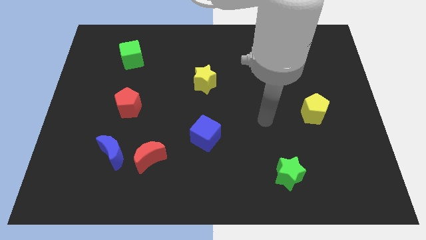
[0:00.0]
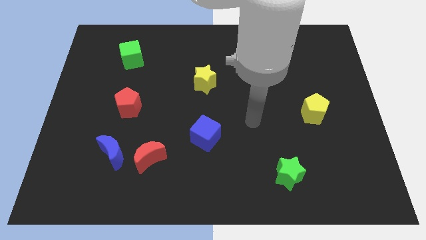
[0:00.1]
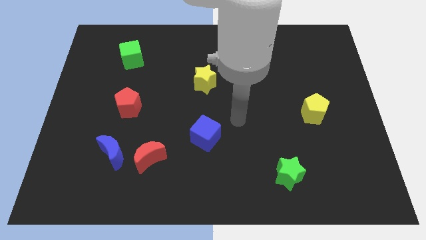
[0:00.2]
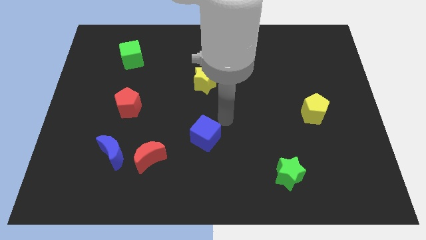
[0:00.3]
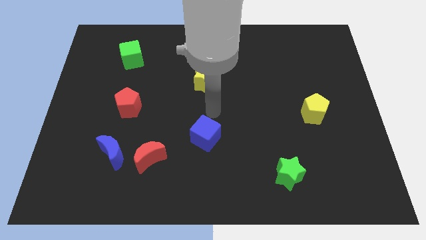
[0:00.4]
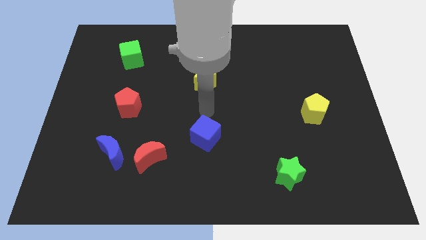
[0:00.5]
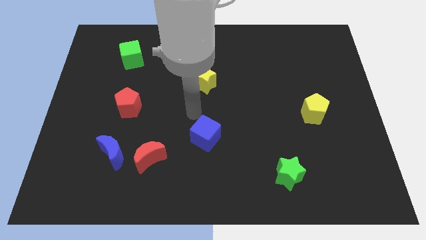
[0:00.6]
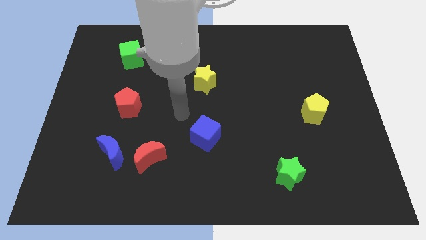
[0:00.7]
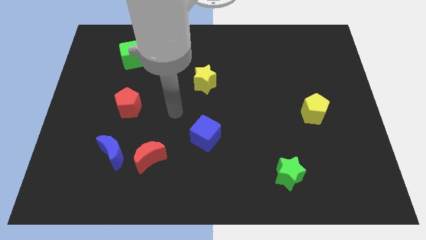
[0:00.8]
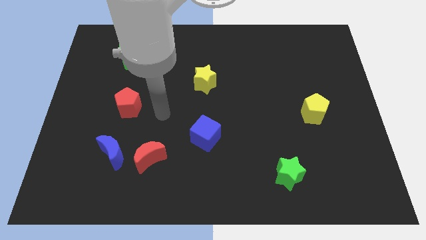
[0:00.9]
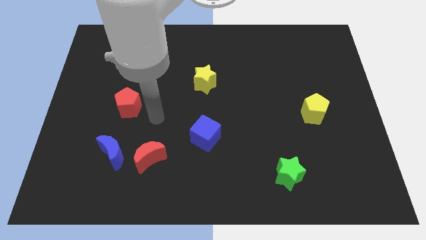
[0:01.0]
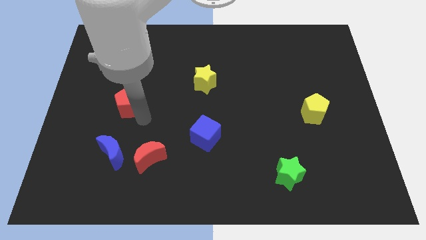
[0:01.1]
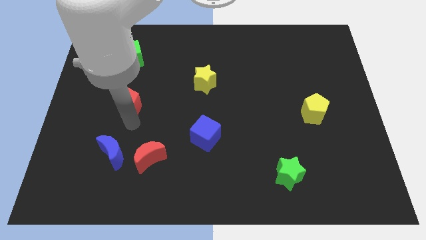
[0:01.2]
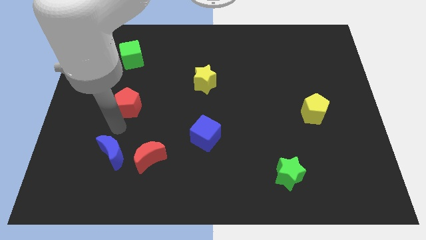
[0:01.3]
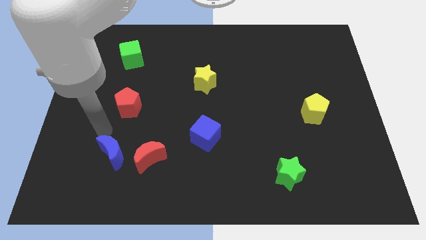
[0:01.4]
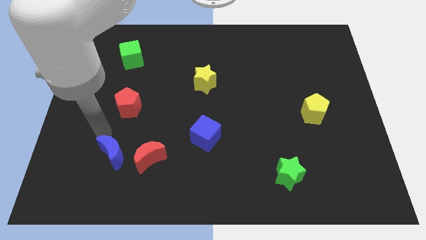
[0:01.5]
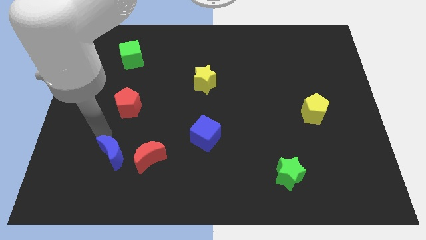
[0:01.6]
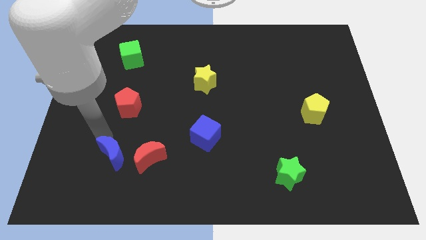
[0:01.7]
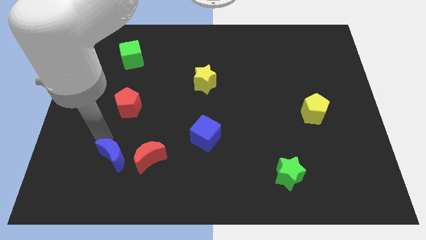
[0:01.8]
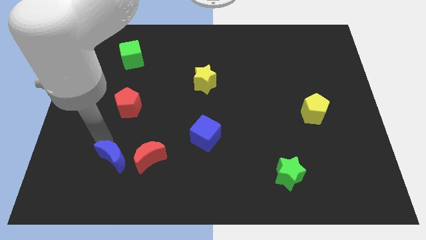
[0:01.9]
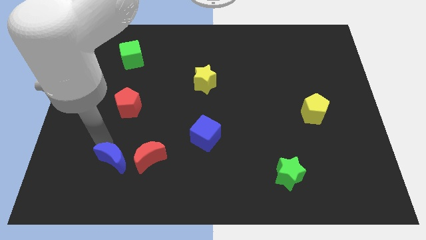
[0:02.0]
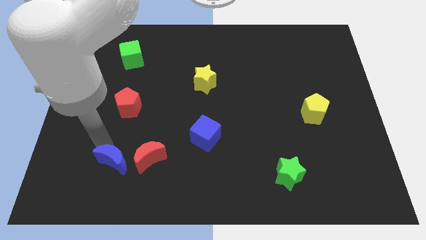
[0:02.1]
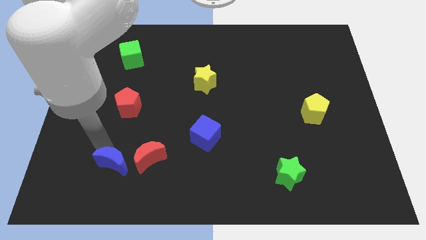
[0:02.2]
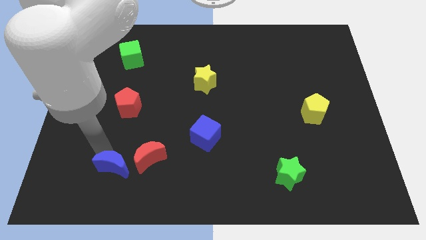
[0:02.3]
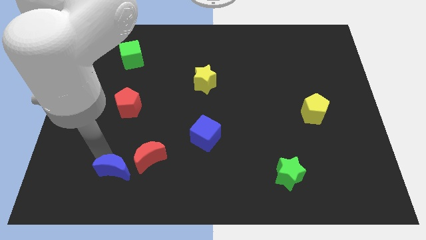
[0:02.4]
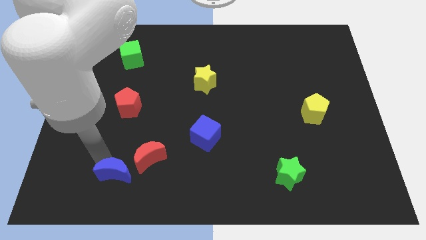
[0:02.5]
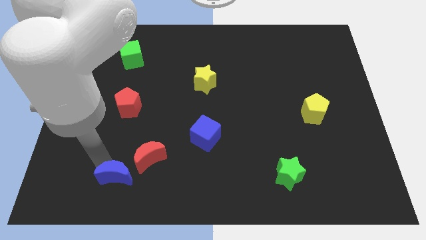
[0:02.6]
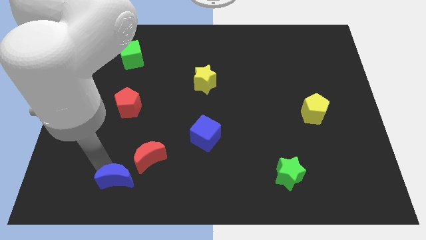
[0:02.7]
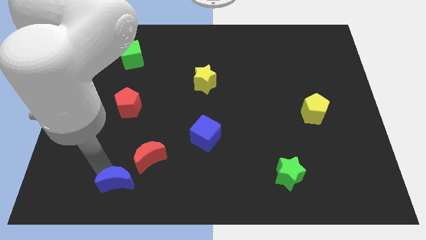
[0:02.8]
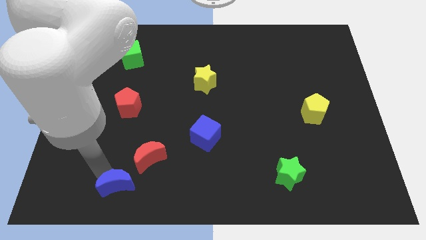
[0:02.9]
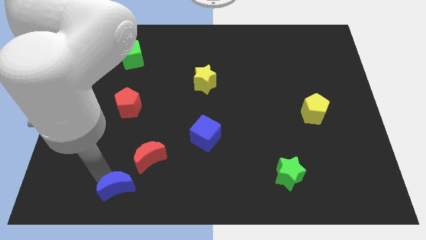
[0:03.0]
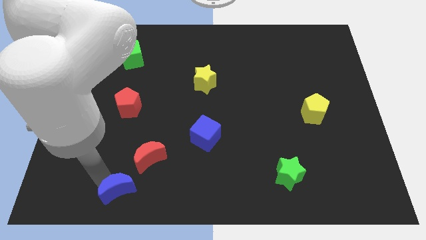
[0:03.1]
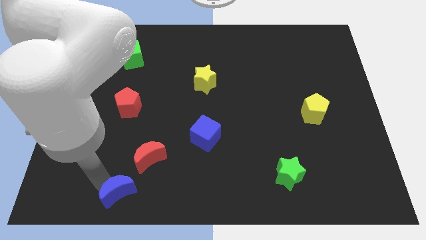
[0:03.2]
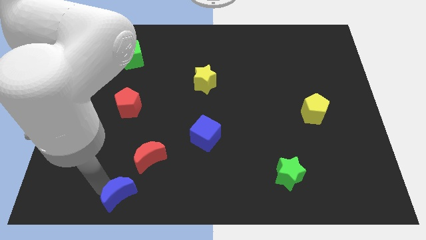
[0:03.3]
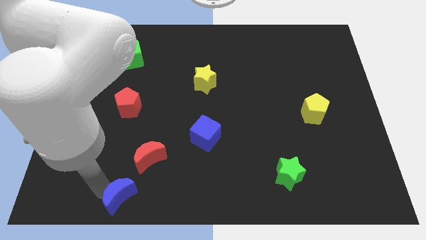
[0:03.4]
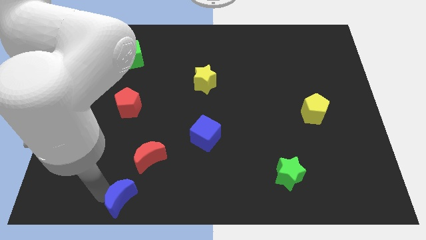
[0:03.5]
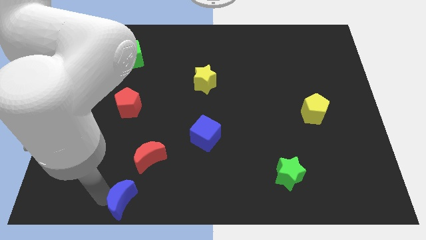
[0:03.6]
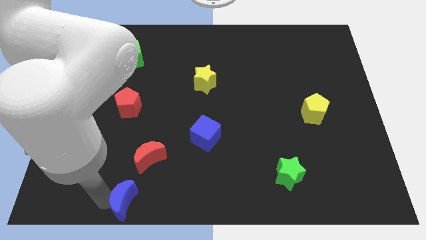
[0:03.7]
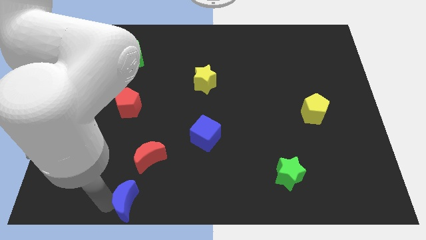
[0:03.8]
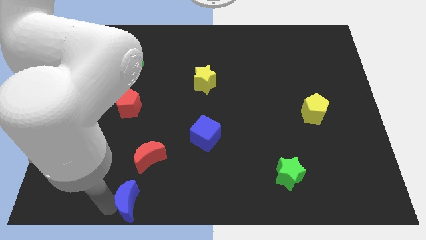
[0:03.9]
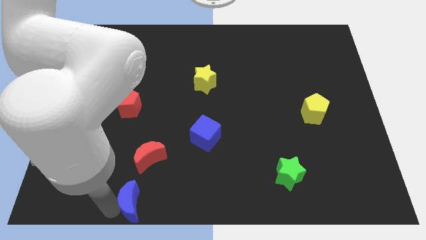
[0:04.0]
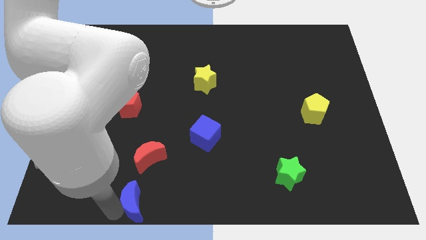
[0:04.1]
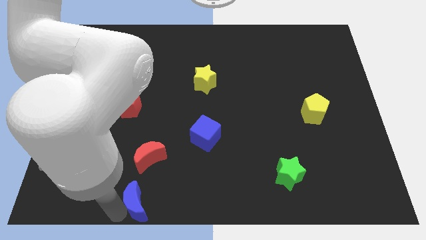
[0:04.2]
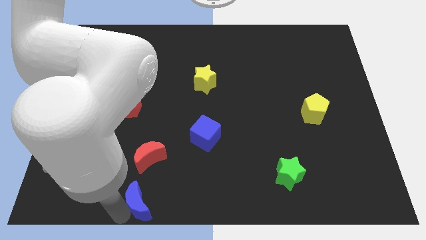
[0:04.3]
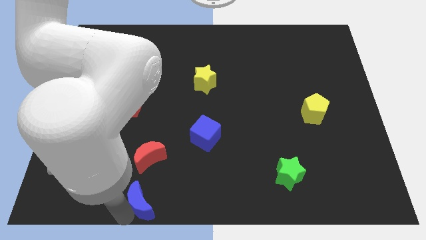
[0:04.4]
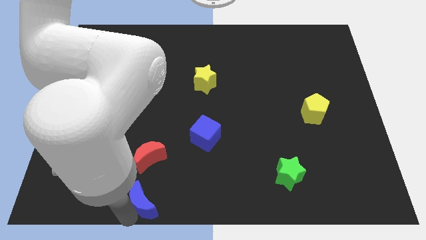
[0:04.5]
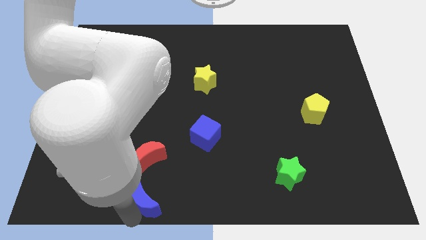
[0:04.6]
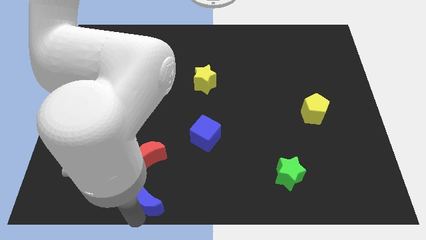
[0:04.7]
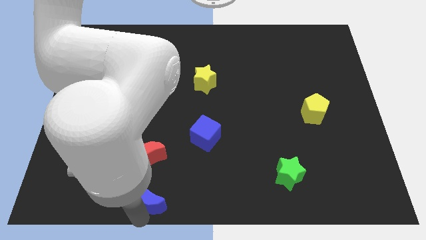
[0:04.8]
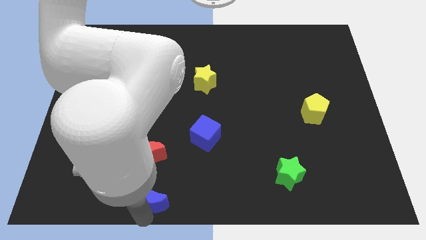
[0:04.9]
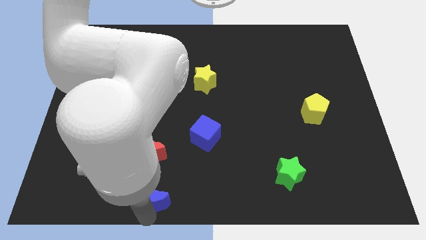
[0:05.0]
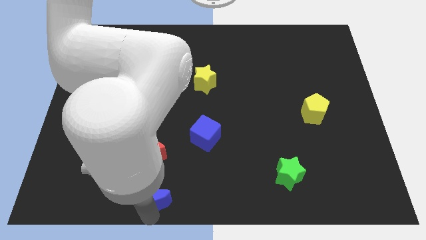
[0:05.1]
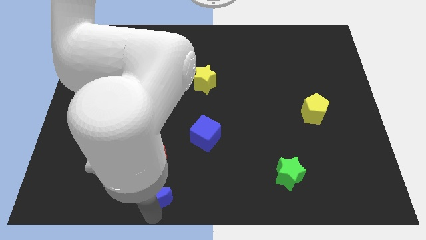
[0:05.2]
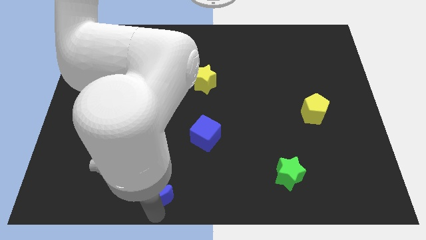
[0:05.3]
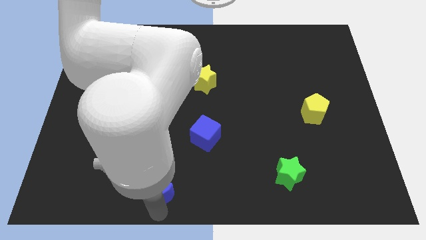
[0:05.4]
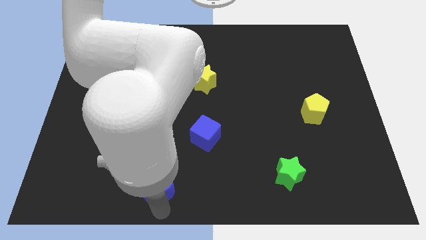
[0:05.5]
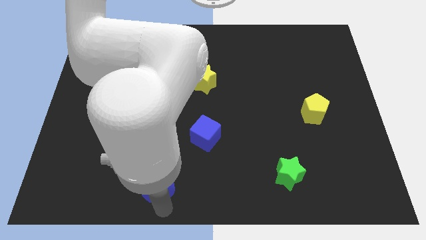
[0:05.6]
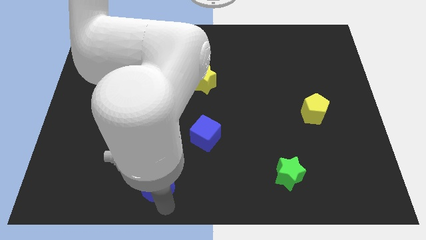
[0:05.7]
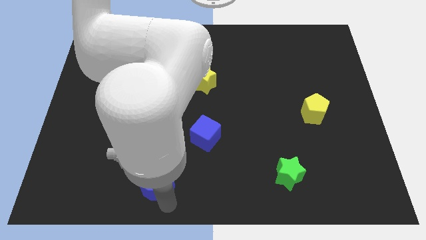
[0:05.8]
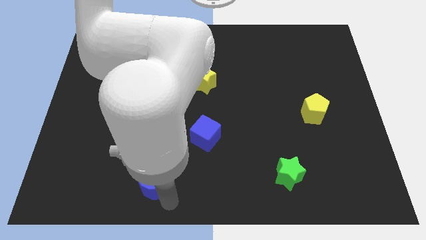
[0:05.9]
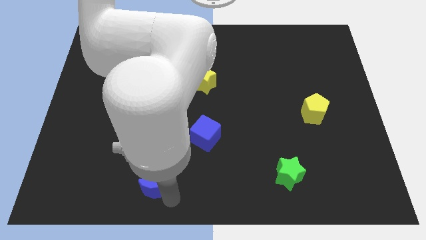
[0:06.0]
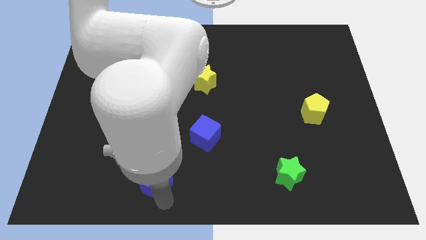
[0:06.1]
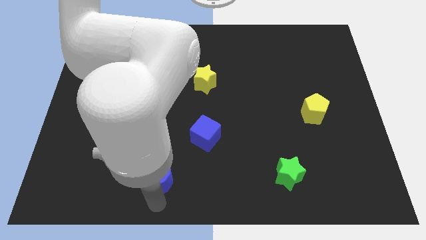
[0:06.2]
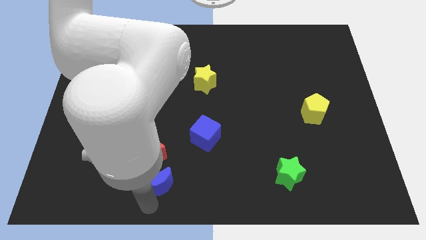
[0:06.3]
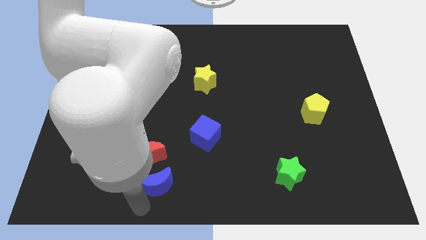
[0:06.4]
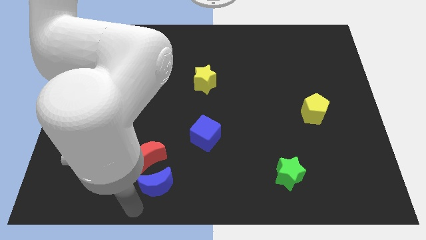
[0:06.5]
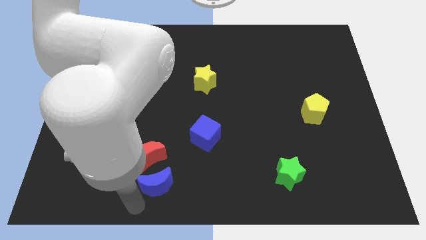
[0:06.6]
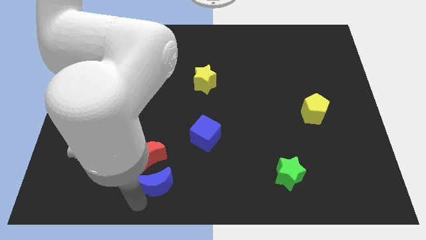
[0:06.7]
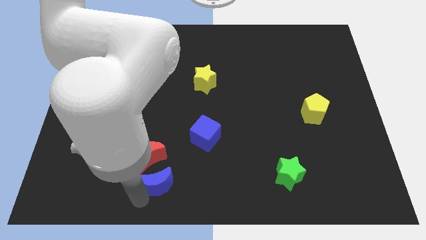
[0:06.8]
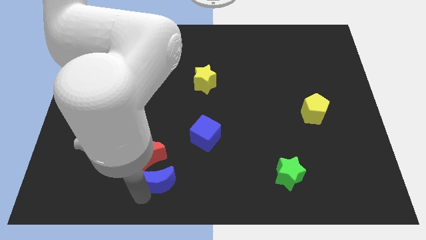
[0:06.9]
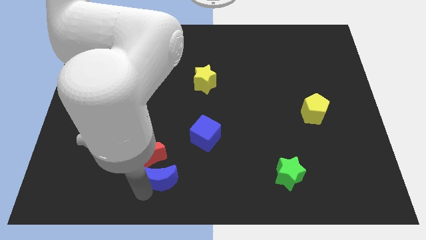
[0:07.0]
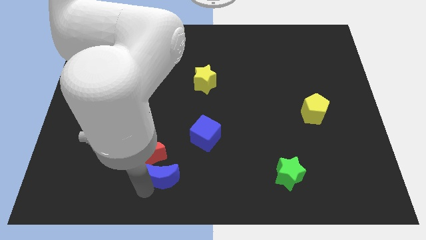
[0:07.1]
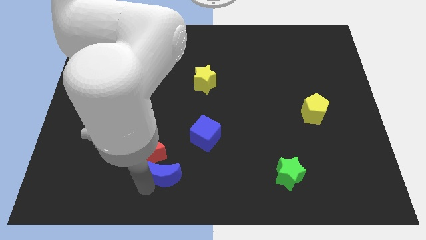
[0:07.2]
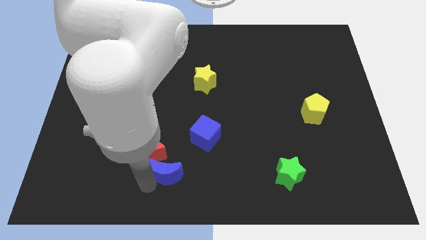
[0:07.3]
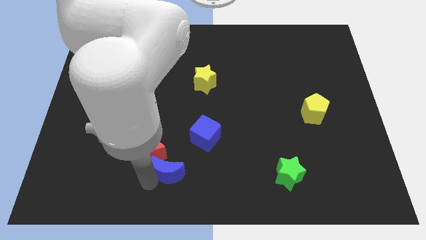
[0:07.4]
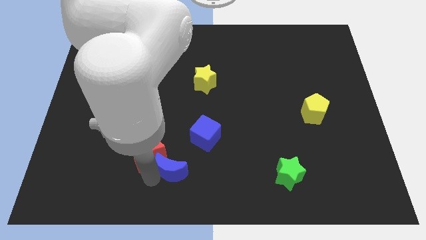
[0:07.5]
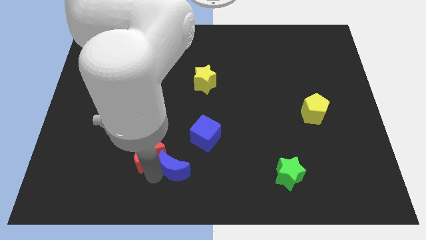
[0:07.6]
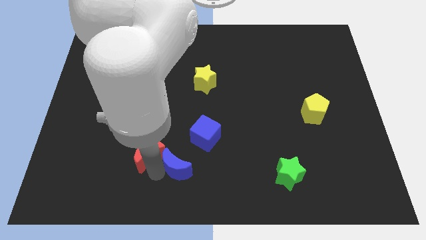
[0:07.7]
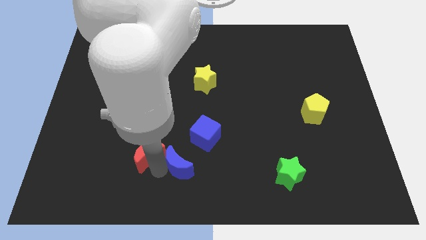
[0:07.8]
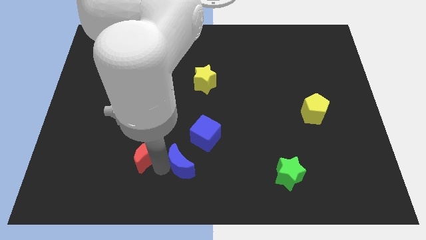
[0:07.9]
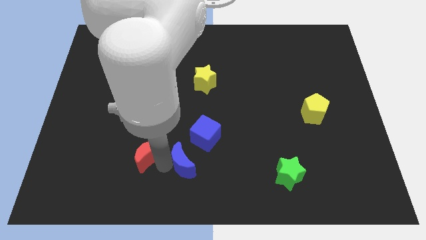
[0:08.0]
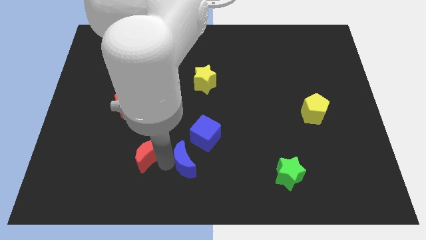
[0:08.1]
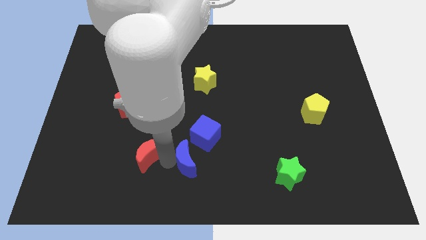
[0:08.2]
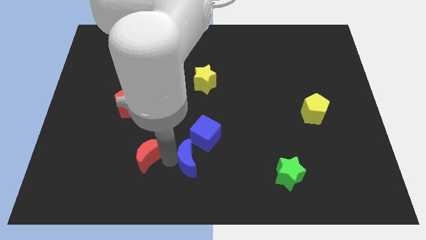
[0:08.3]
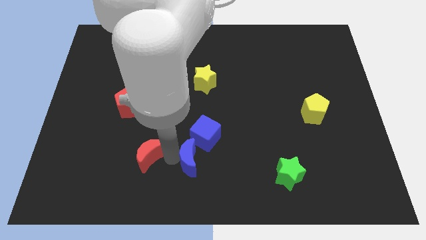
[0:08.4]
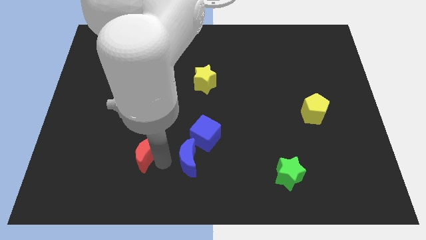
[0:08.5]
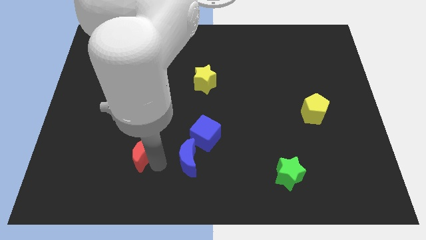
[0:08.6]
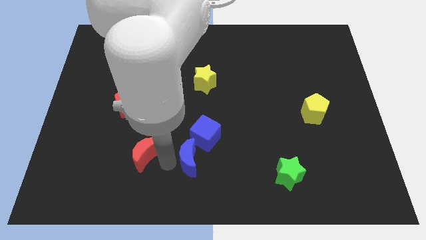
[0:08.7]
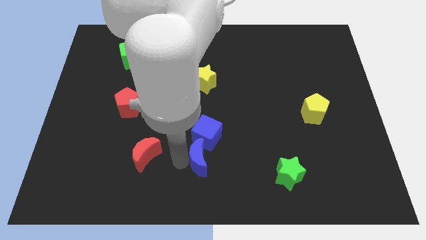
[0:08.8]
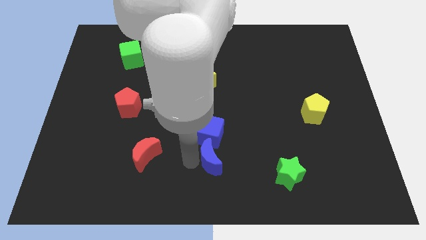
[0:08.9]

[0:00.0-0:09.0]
slide the blue moon right
